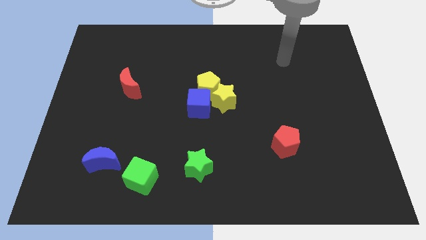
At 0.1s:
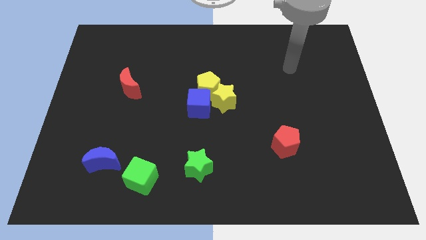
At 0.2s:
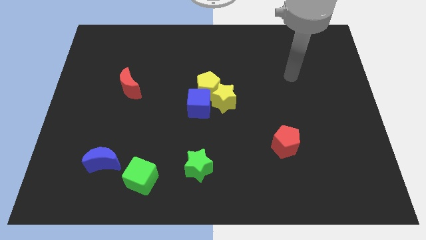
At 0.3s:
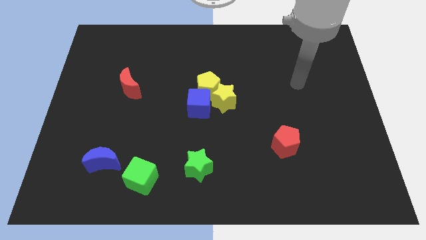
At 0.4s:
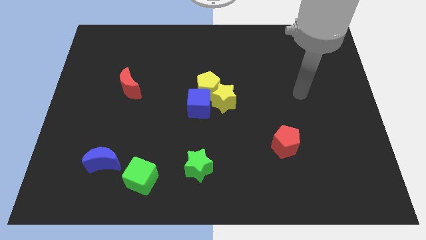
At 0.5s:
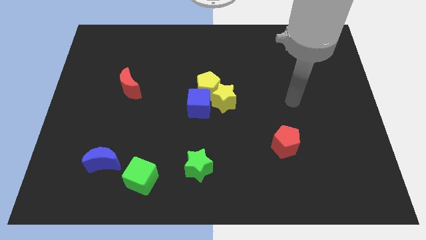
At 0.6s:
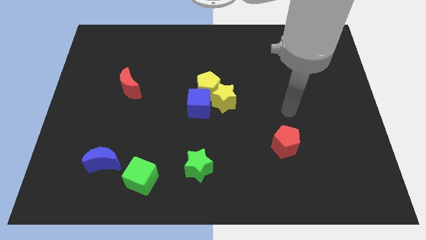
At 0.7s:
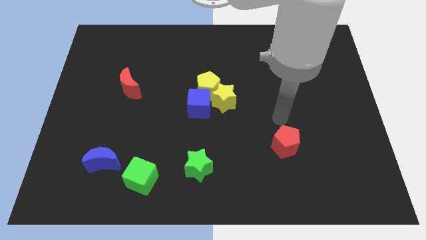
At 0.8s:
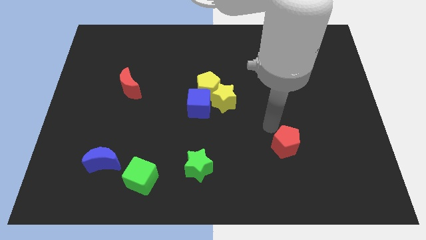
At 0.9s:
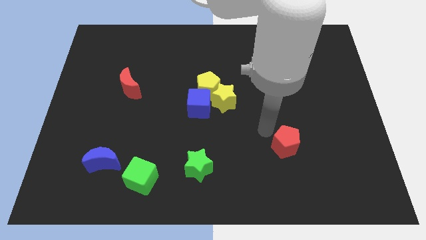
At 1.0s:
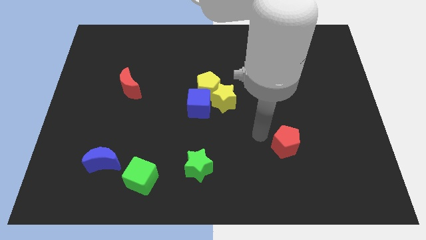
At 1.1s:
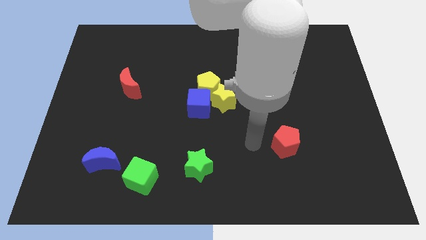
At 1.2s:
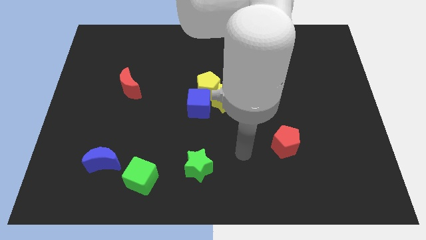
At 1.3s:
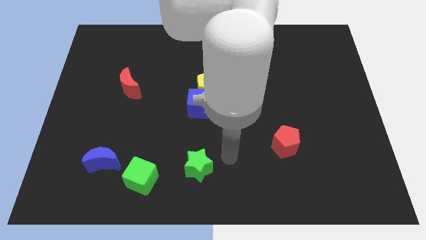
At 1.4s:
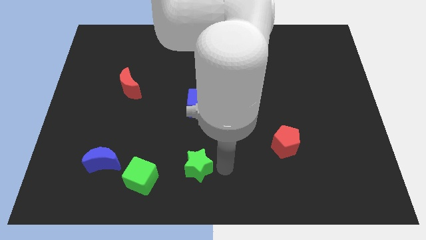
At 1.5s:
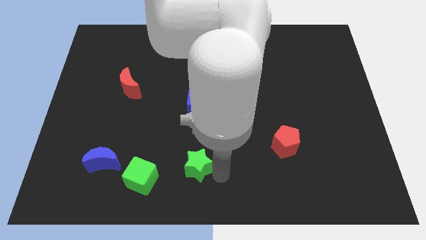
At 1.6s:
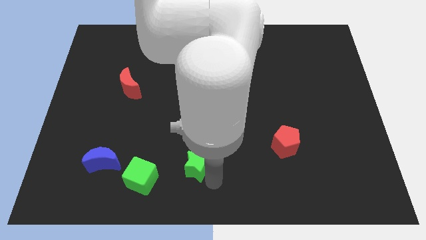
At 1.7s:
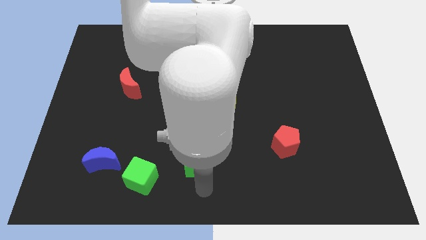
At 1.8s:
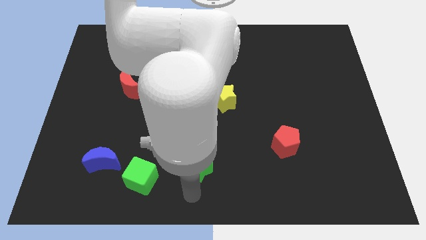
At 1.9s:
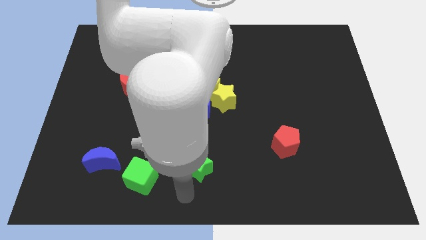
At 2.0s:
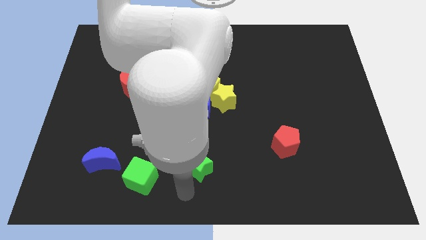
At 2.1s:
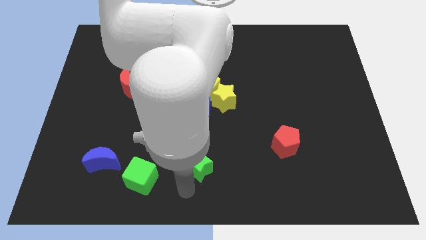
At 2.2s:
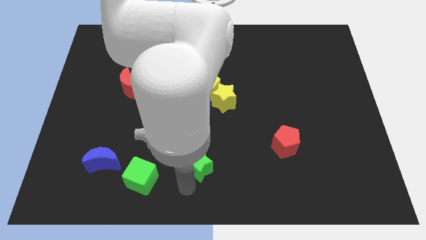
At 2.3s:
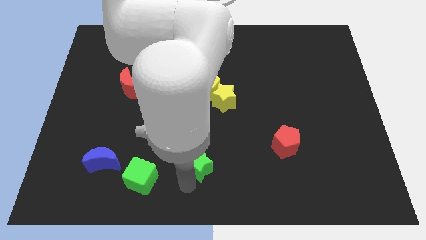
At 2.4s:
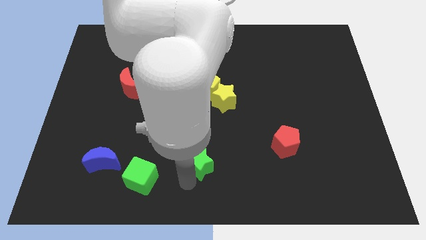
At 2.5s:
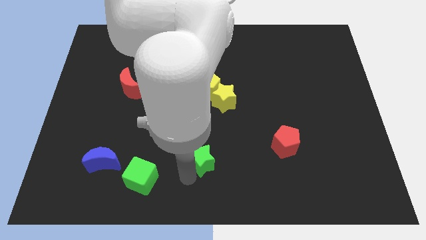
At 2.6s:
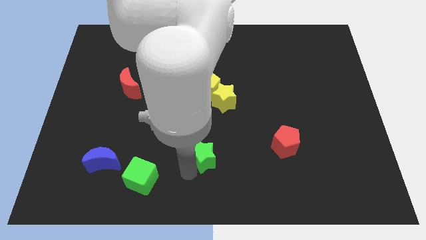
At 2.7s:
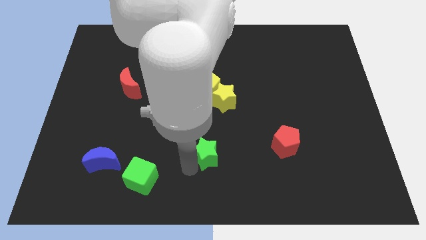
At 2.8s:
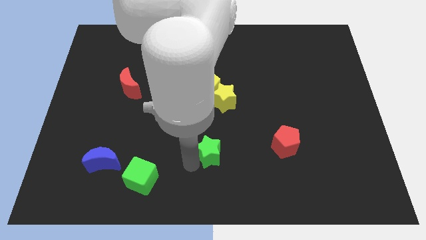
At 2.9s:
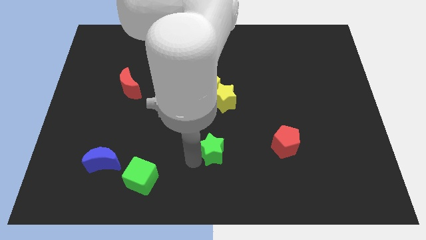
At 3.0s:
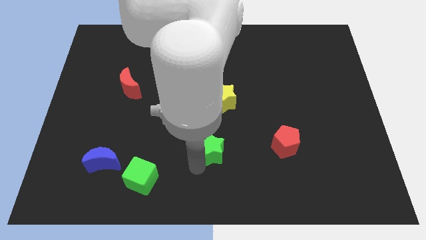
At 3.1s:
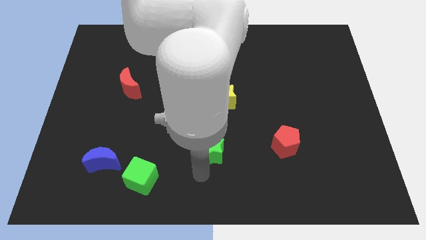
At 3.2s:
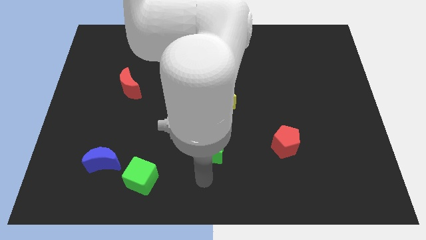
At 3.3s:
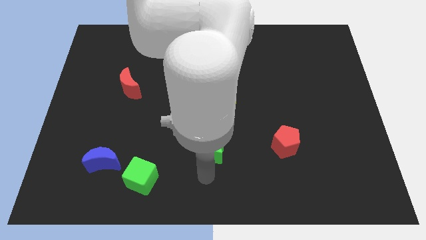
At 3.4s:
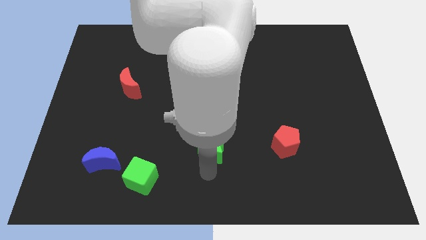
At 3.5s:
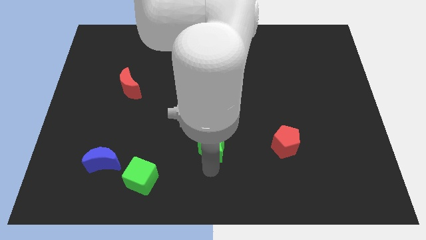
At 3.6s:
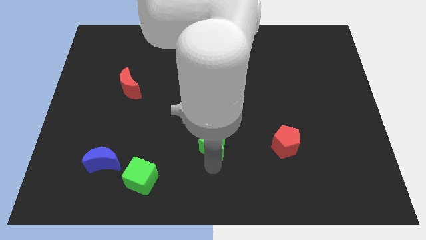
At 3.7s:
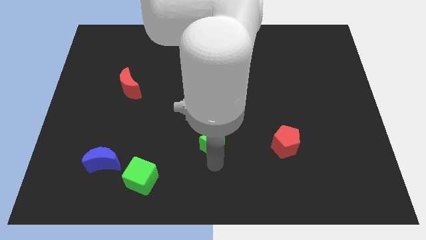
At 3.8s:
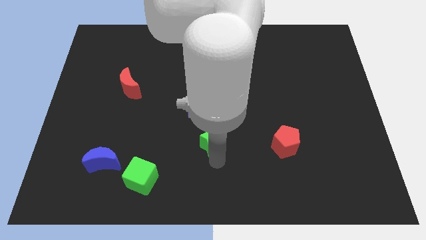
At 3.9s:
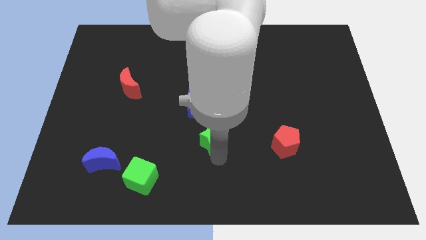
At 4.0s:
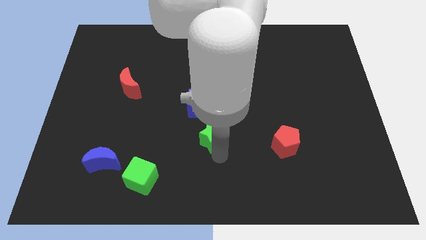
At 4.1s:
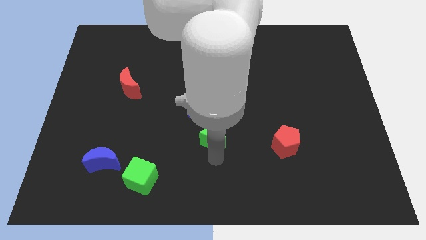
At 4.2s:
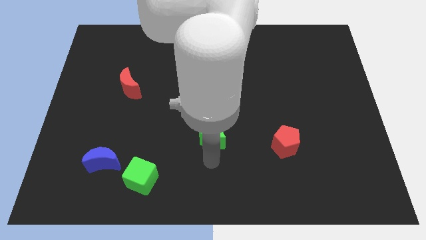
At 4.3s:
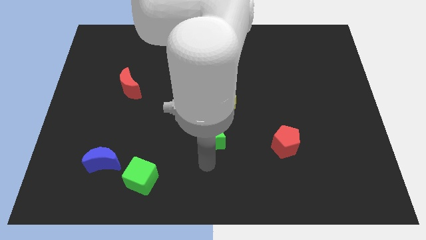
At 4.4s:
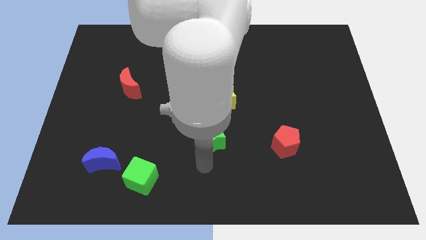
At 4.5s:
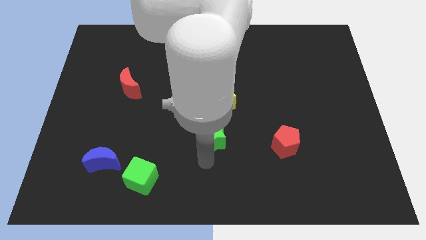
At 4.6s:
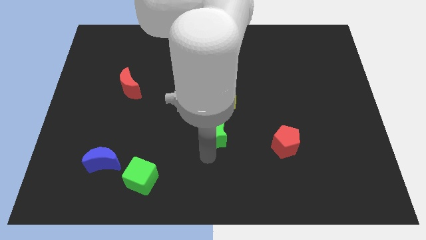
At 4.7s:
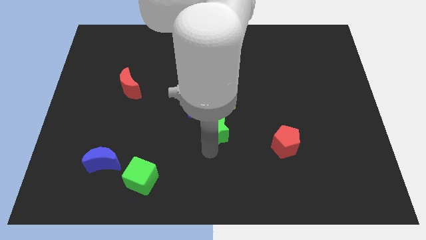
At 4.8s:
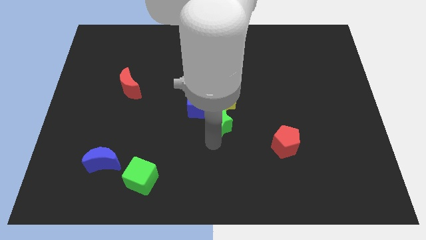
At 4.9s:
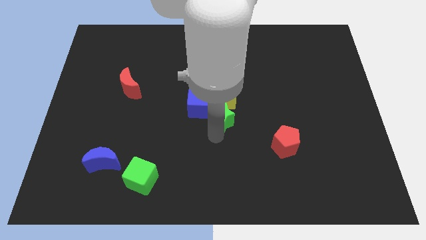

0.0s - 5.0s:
move the green star close to the yellow star

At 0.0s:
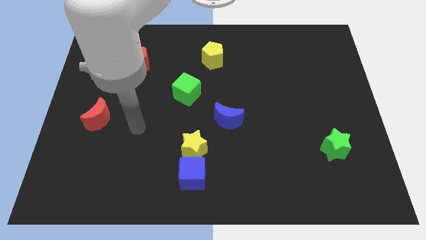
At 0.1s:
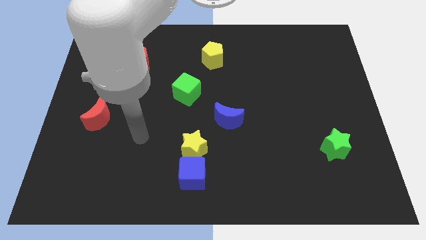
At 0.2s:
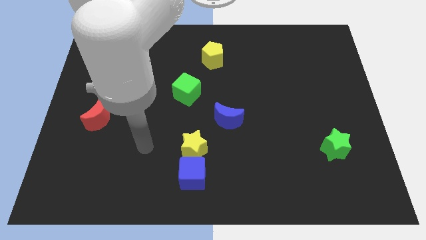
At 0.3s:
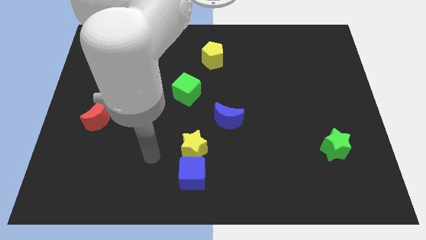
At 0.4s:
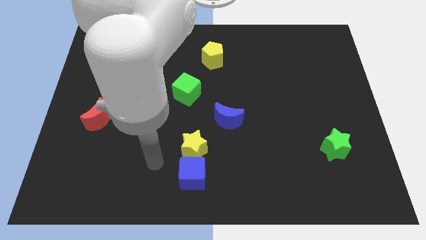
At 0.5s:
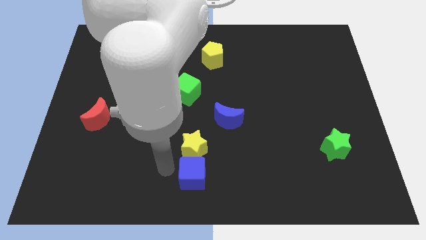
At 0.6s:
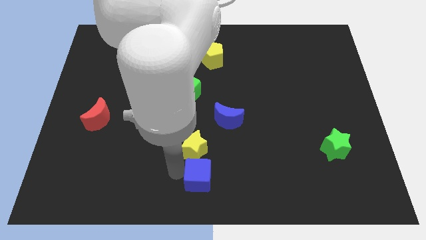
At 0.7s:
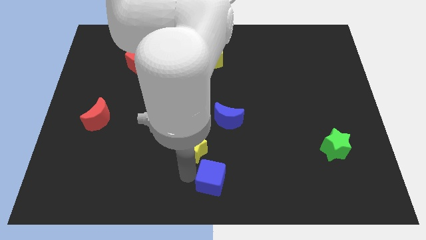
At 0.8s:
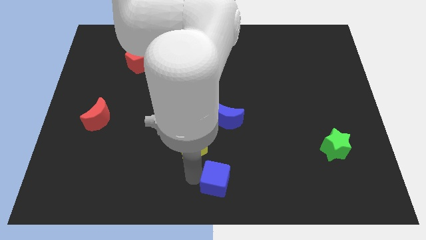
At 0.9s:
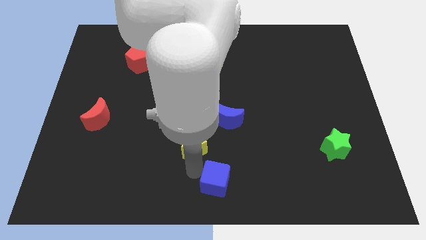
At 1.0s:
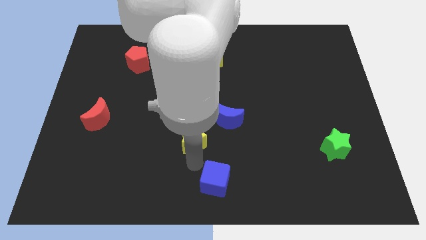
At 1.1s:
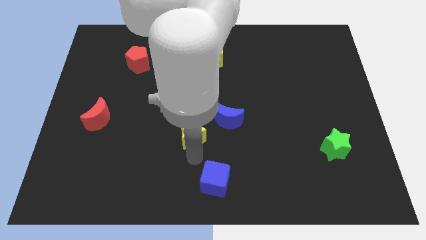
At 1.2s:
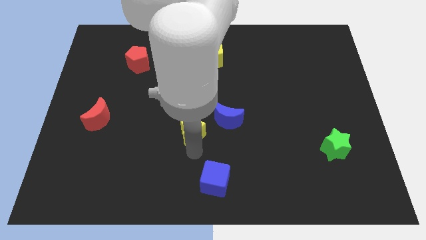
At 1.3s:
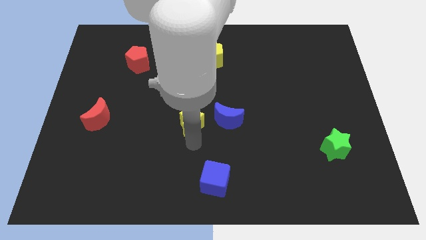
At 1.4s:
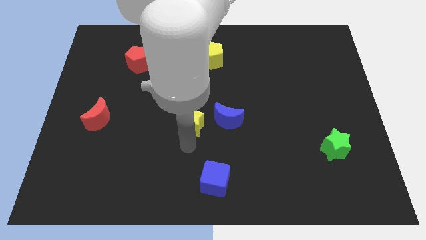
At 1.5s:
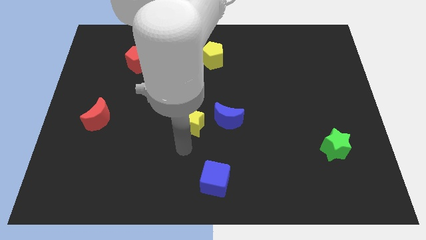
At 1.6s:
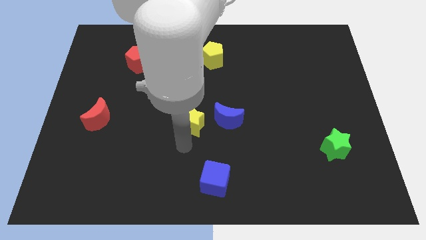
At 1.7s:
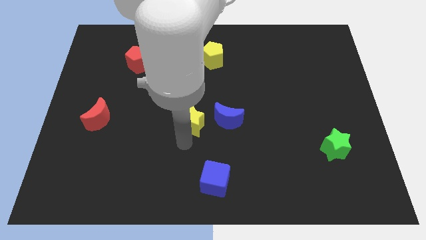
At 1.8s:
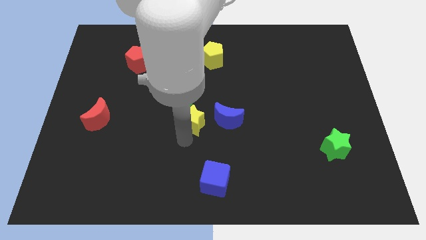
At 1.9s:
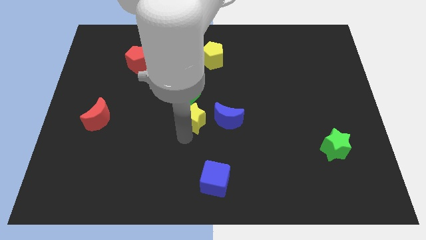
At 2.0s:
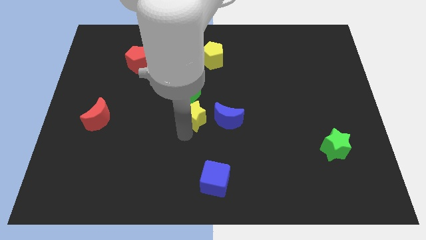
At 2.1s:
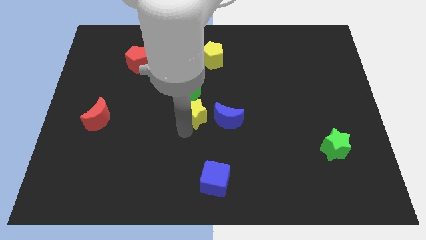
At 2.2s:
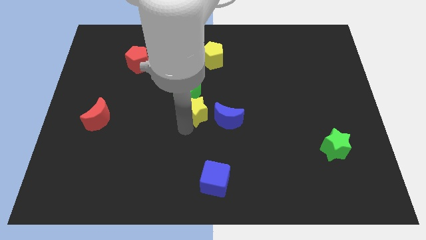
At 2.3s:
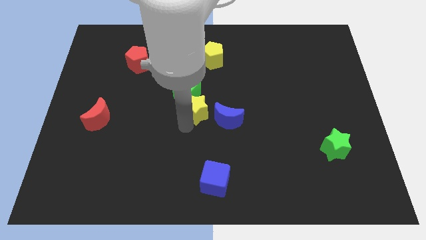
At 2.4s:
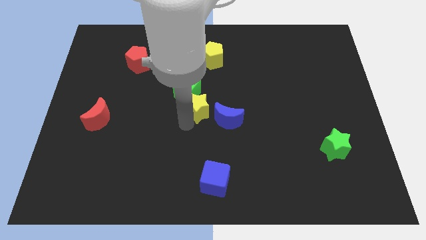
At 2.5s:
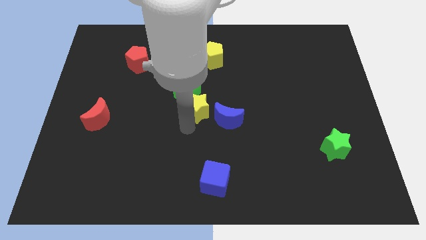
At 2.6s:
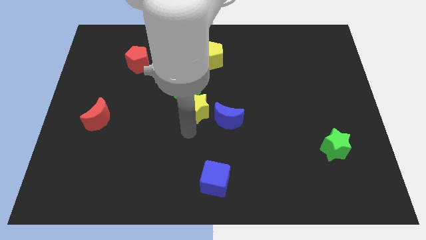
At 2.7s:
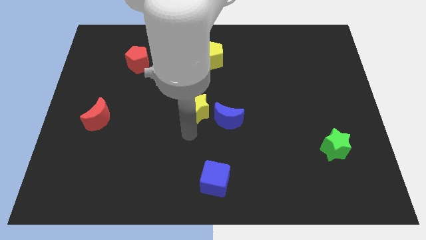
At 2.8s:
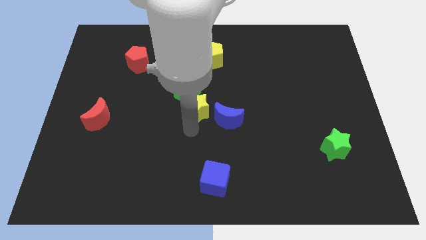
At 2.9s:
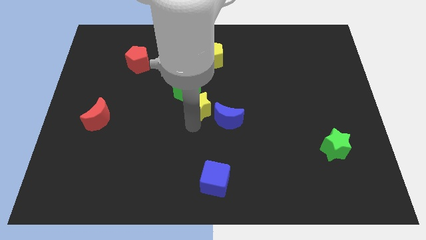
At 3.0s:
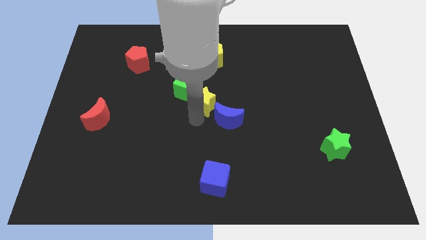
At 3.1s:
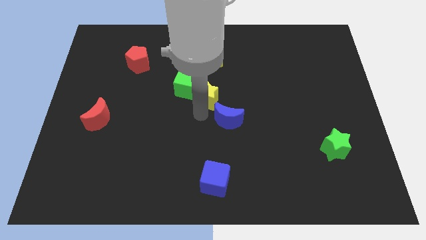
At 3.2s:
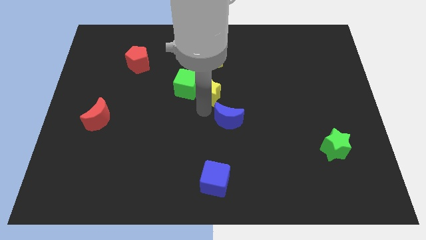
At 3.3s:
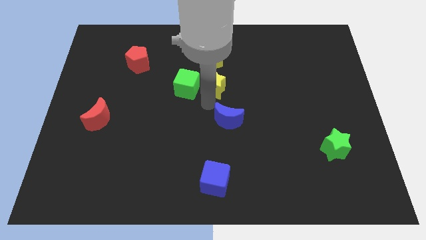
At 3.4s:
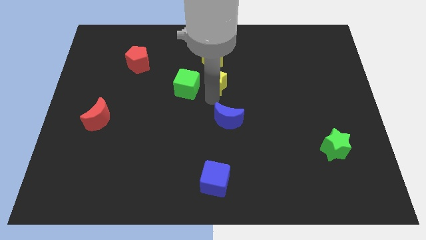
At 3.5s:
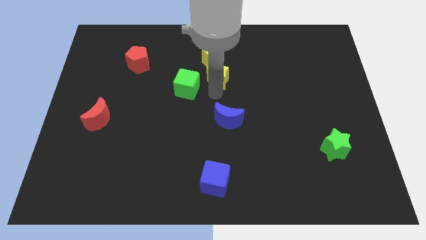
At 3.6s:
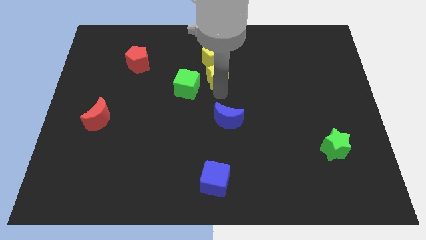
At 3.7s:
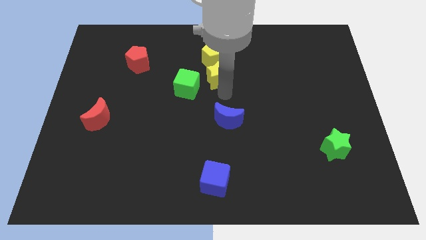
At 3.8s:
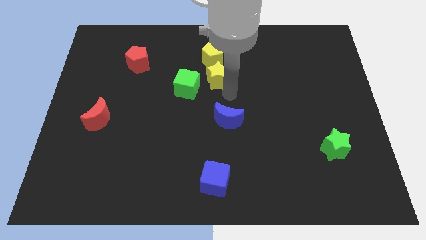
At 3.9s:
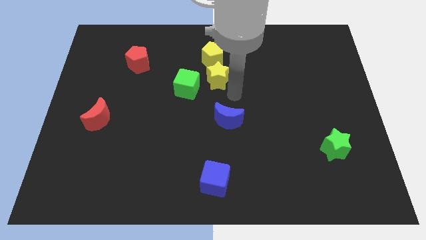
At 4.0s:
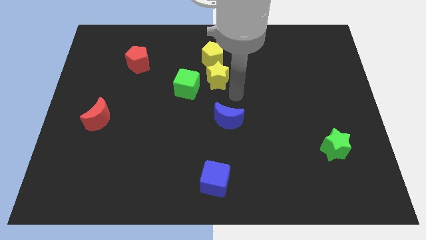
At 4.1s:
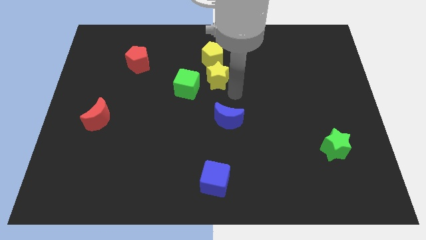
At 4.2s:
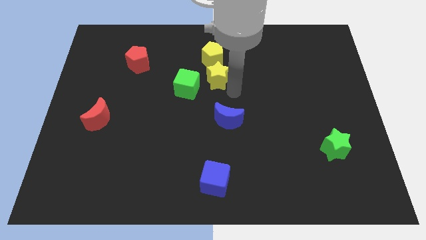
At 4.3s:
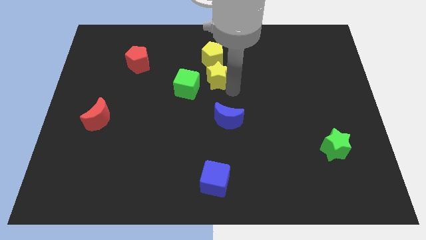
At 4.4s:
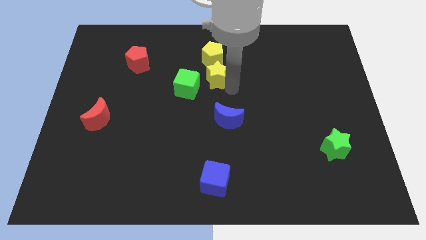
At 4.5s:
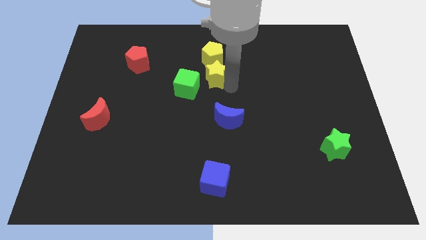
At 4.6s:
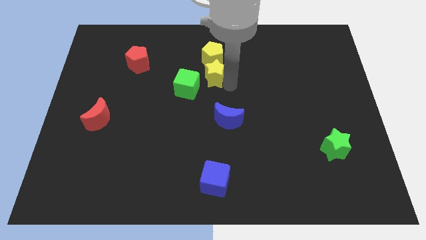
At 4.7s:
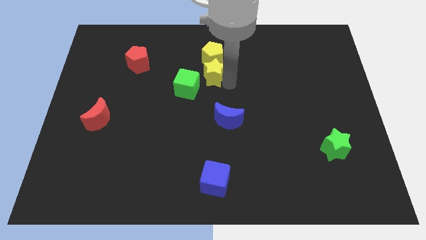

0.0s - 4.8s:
put the yellow star next to the yellow pentagon
